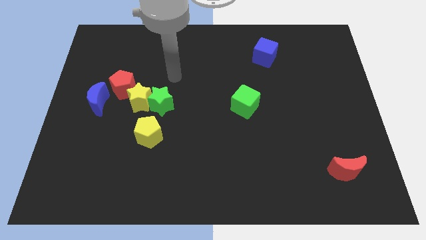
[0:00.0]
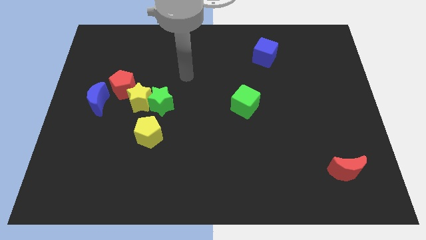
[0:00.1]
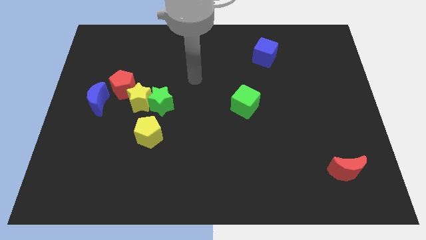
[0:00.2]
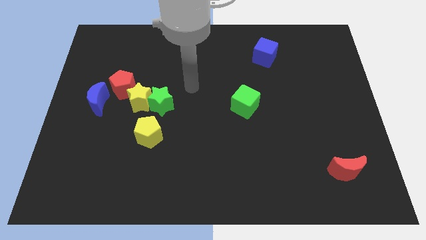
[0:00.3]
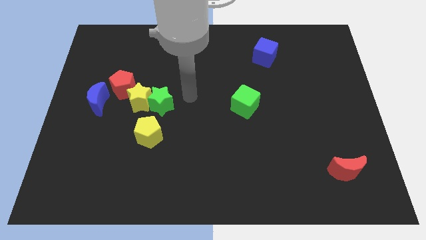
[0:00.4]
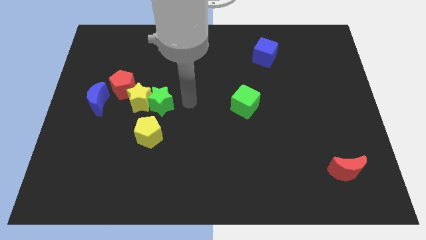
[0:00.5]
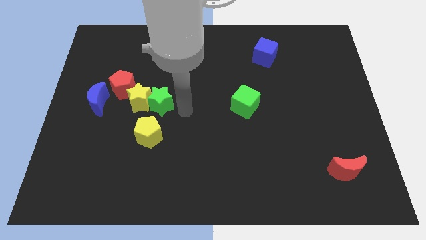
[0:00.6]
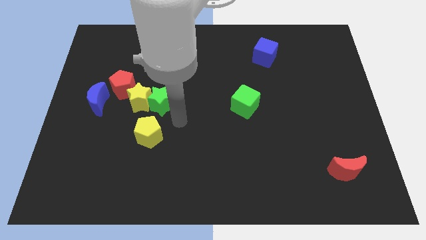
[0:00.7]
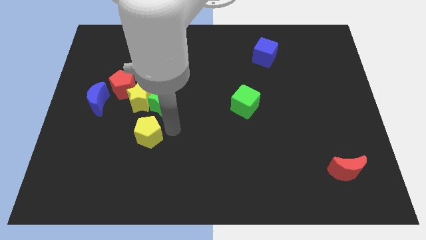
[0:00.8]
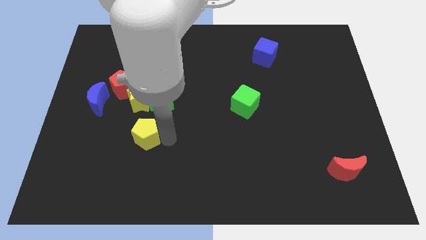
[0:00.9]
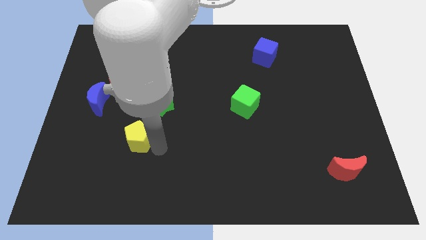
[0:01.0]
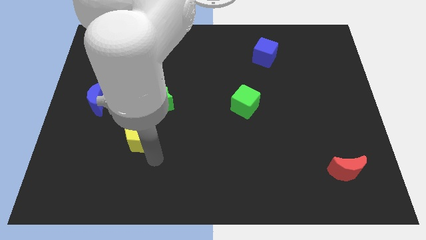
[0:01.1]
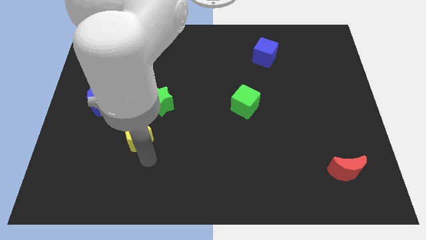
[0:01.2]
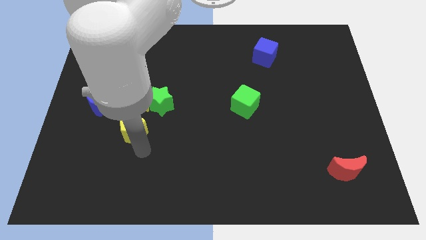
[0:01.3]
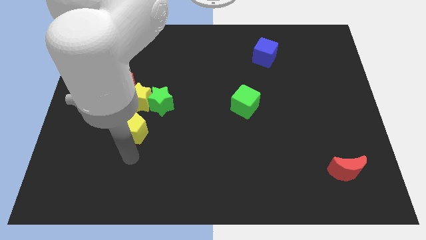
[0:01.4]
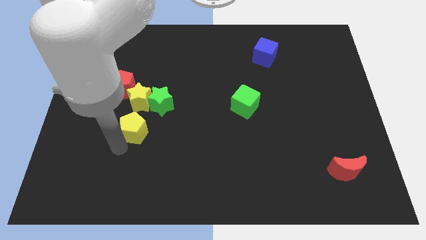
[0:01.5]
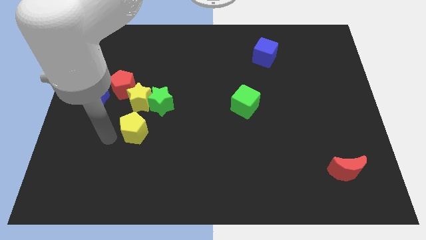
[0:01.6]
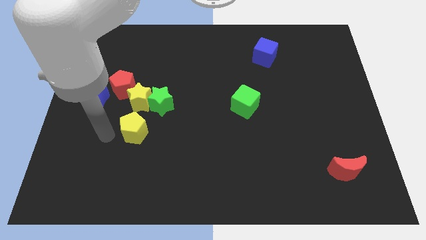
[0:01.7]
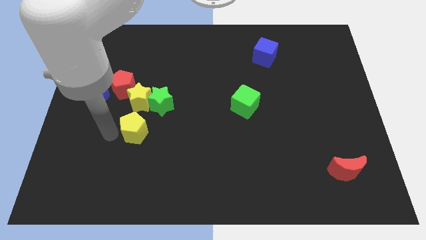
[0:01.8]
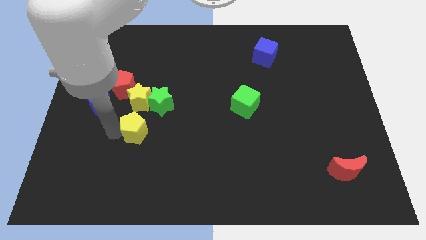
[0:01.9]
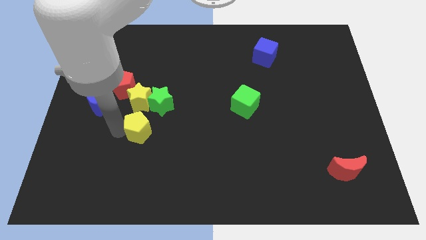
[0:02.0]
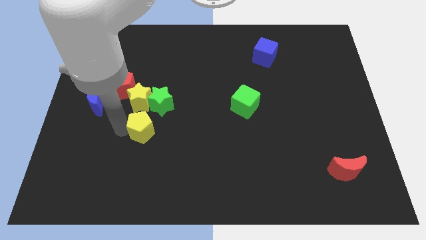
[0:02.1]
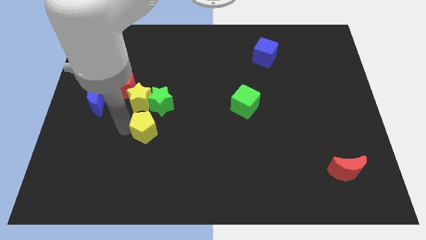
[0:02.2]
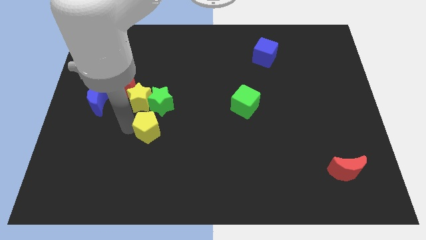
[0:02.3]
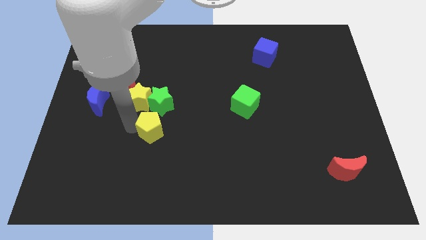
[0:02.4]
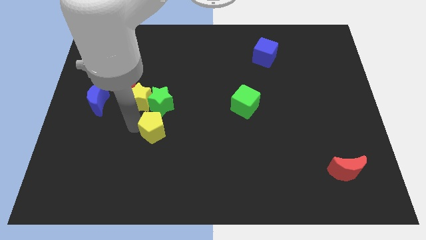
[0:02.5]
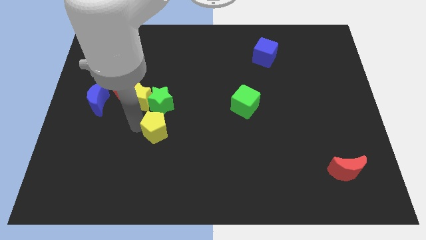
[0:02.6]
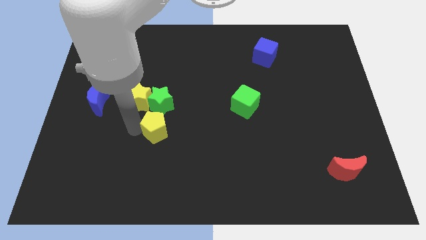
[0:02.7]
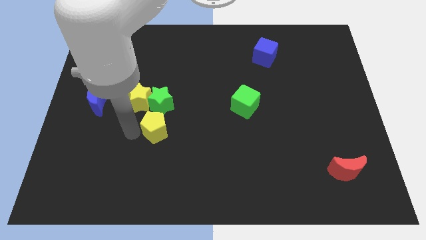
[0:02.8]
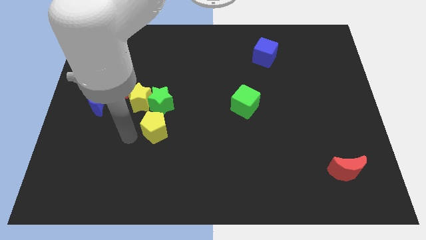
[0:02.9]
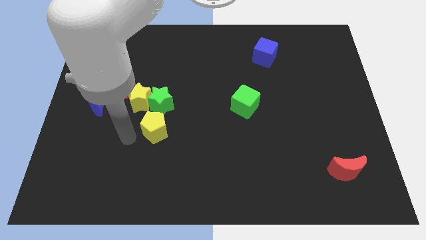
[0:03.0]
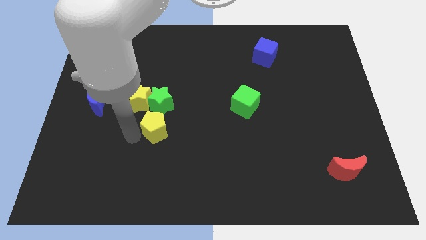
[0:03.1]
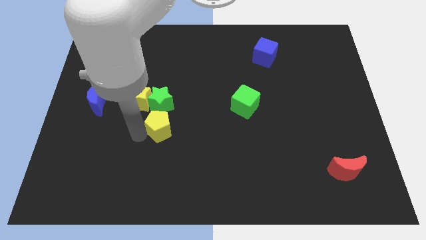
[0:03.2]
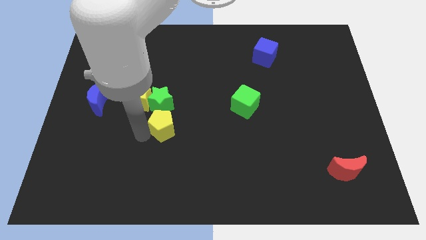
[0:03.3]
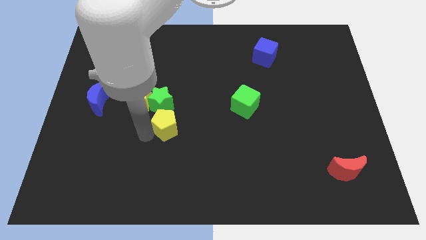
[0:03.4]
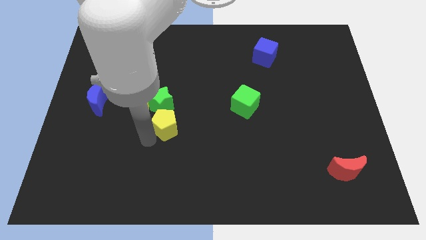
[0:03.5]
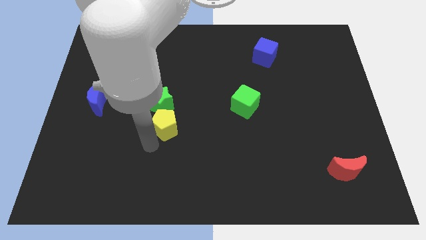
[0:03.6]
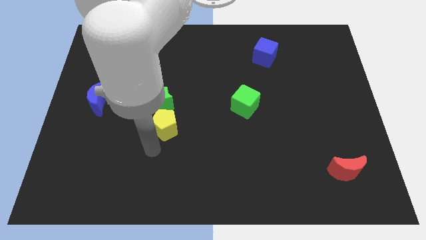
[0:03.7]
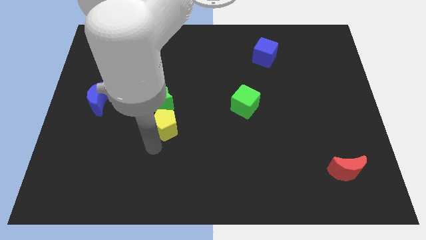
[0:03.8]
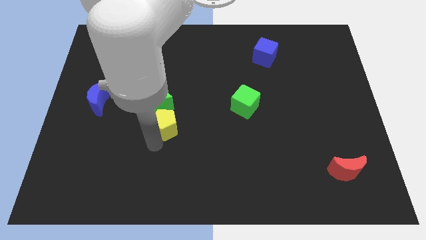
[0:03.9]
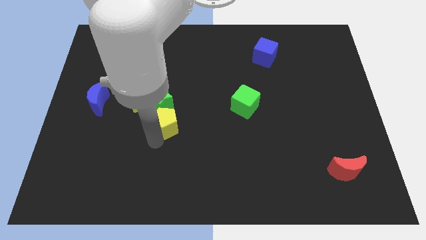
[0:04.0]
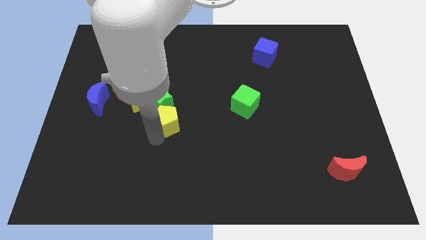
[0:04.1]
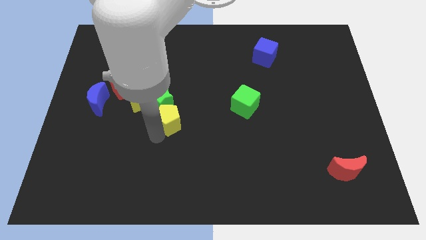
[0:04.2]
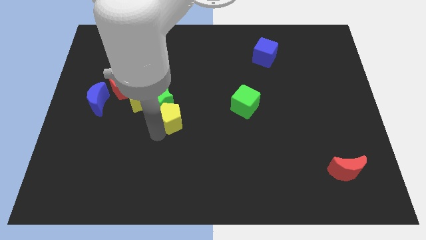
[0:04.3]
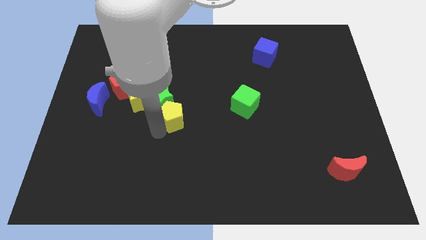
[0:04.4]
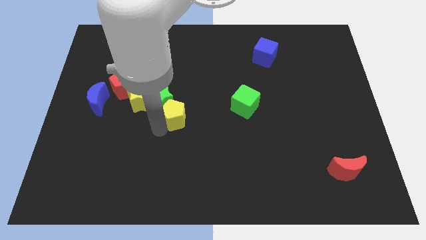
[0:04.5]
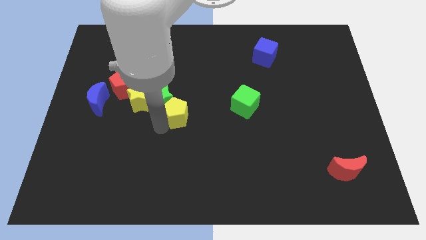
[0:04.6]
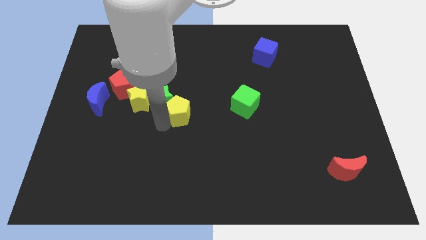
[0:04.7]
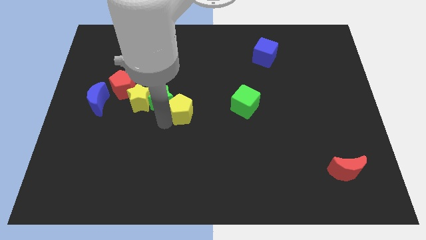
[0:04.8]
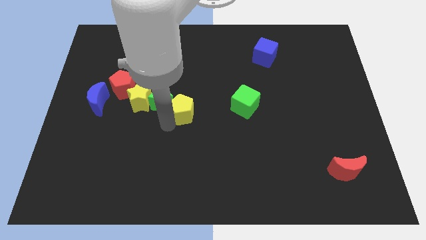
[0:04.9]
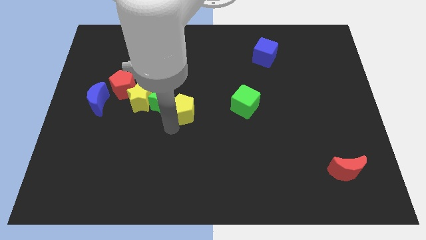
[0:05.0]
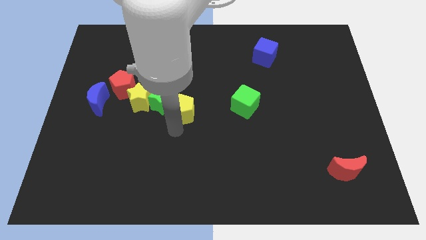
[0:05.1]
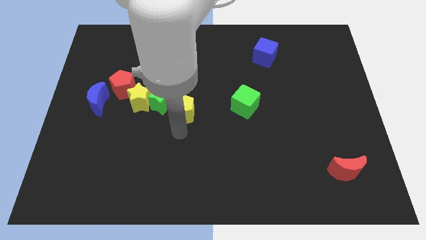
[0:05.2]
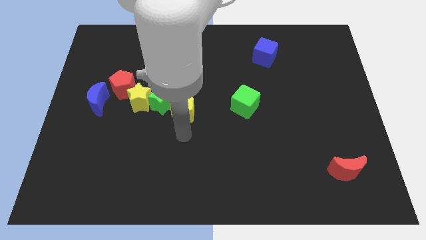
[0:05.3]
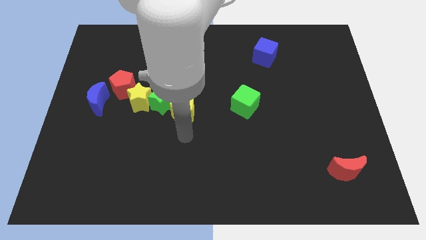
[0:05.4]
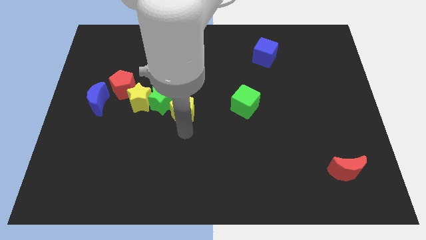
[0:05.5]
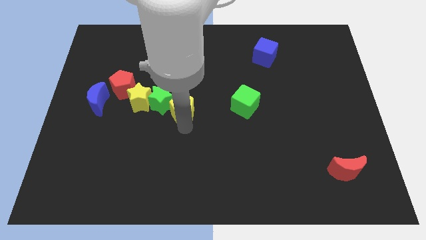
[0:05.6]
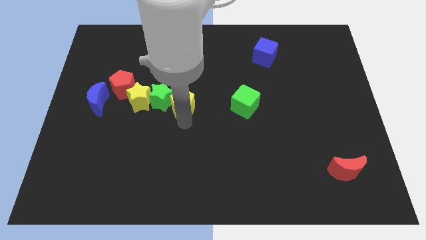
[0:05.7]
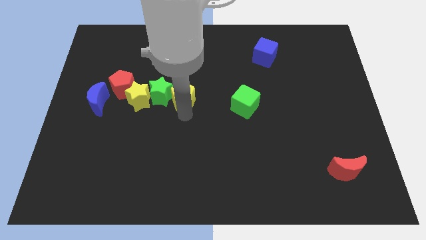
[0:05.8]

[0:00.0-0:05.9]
push the yellow pentagon up a bit

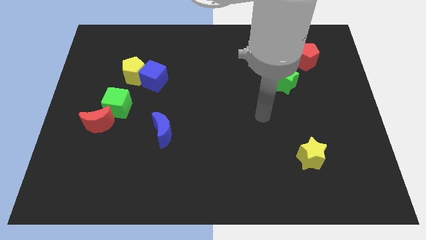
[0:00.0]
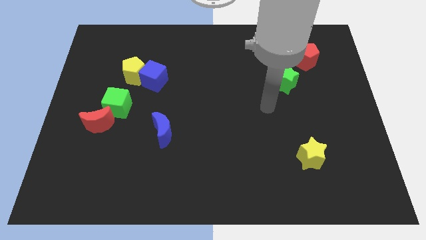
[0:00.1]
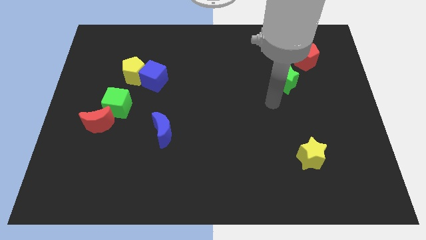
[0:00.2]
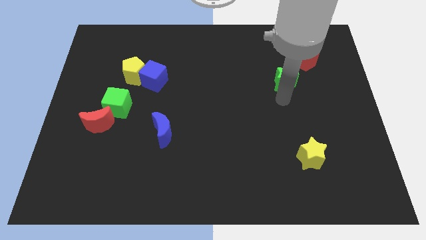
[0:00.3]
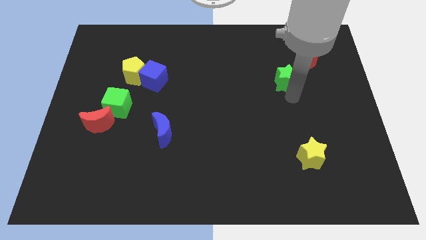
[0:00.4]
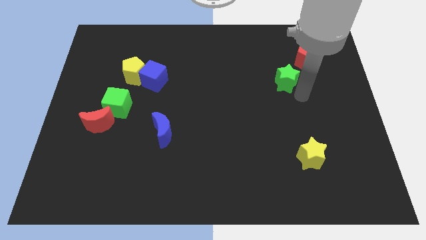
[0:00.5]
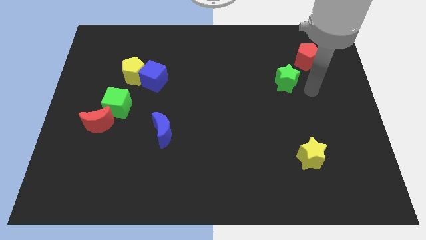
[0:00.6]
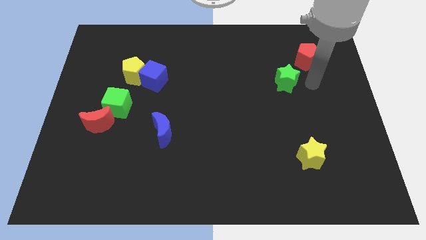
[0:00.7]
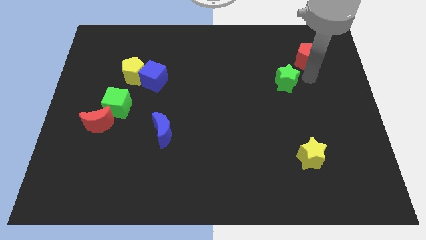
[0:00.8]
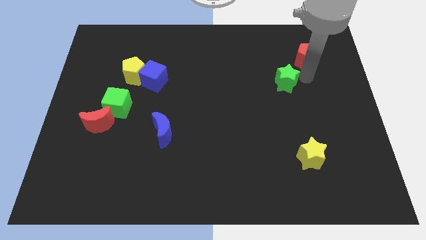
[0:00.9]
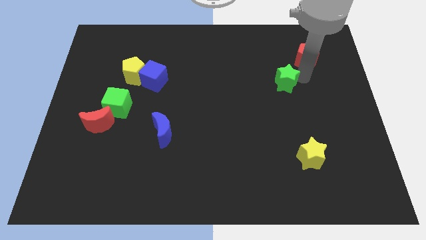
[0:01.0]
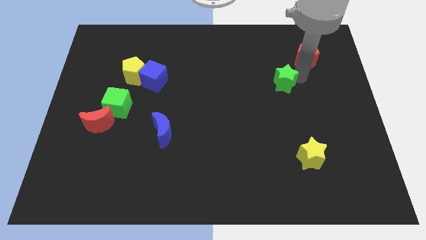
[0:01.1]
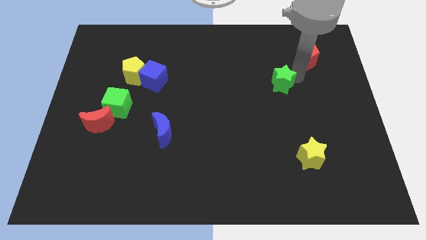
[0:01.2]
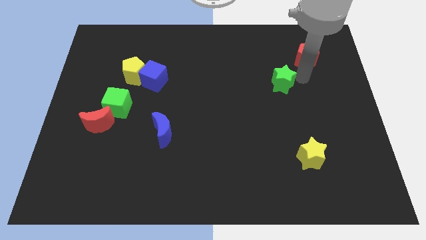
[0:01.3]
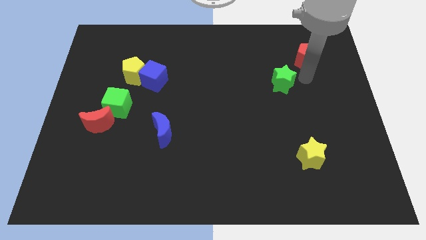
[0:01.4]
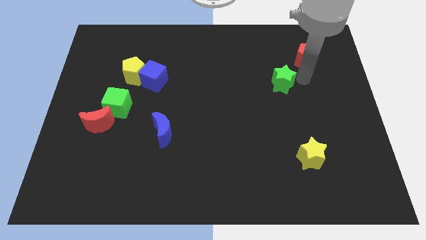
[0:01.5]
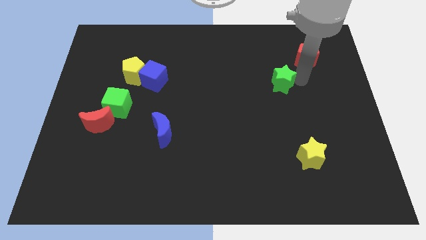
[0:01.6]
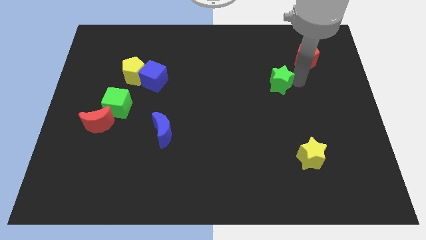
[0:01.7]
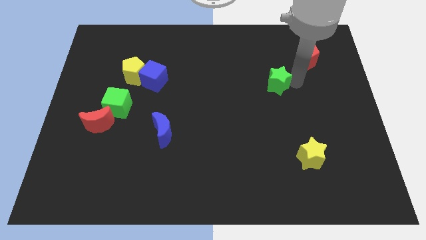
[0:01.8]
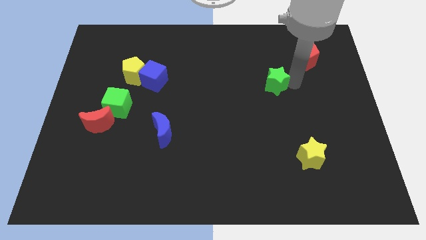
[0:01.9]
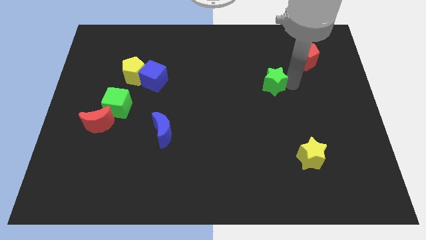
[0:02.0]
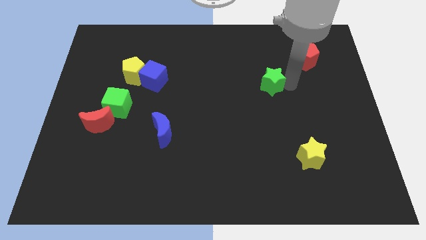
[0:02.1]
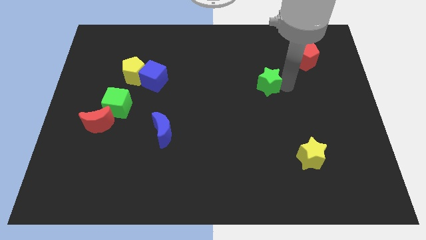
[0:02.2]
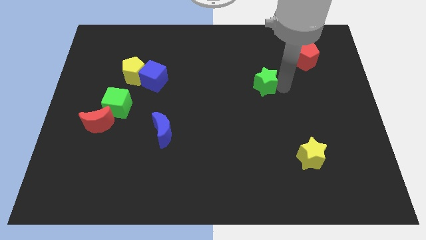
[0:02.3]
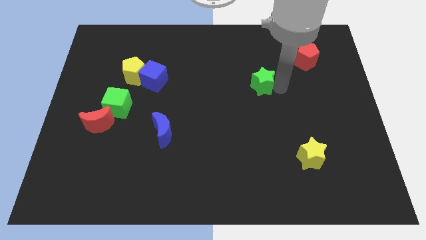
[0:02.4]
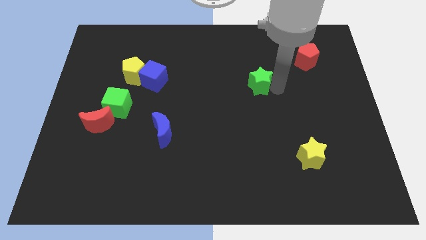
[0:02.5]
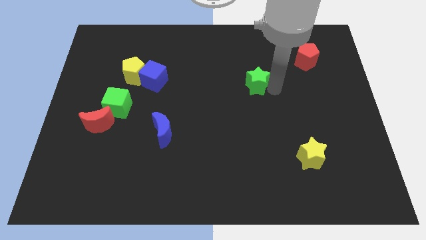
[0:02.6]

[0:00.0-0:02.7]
slide the green star somewhat to the left
